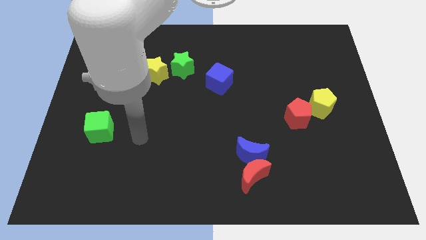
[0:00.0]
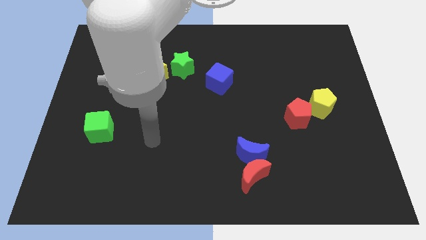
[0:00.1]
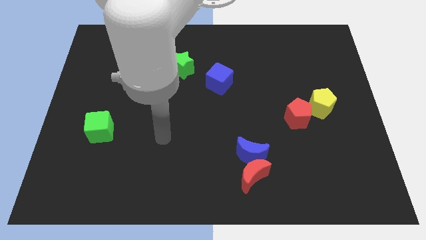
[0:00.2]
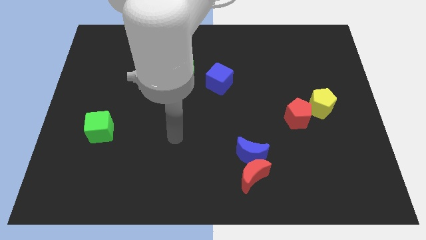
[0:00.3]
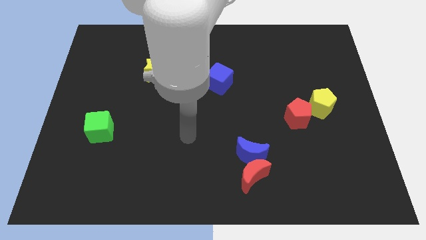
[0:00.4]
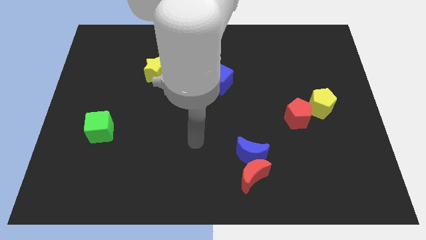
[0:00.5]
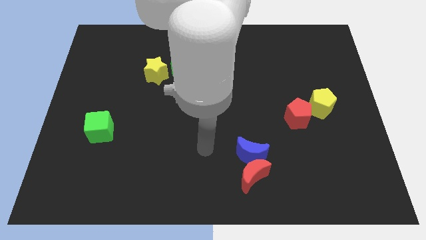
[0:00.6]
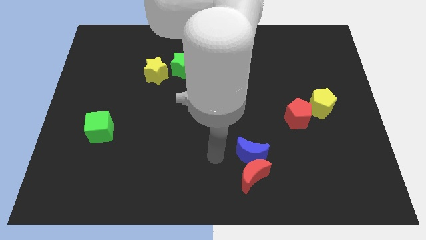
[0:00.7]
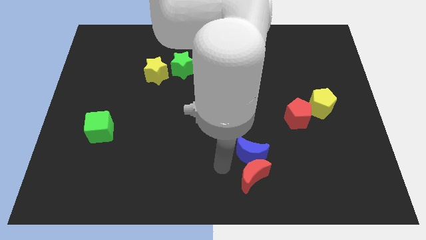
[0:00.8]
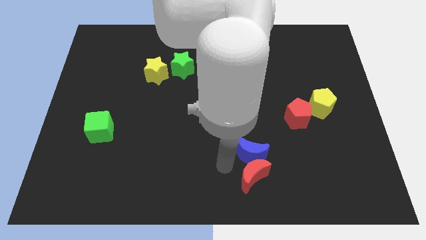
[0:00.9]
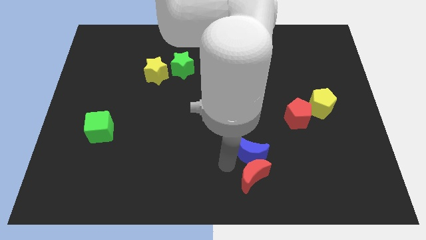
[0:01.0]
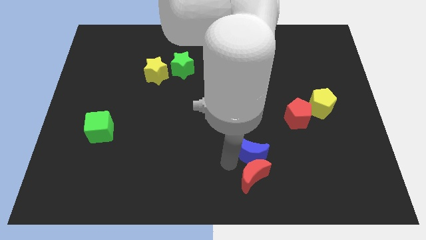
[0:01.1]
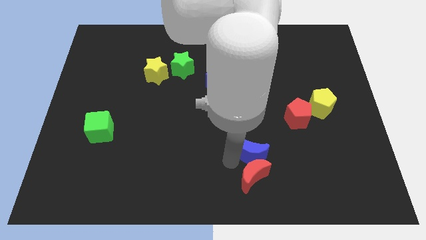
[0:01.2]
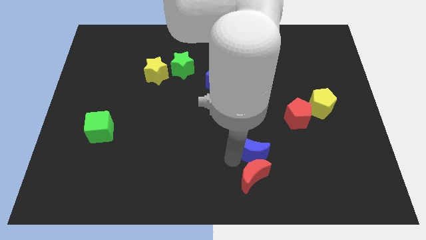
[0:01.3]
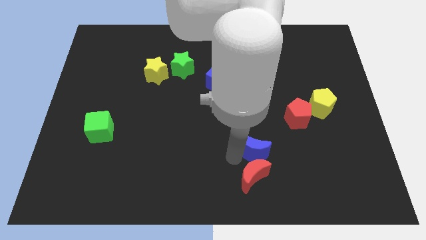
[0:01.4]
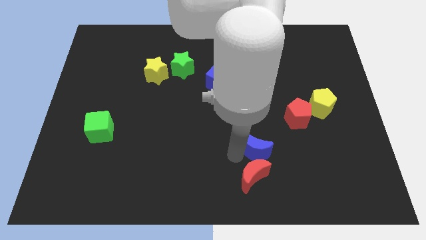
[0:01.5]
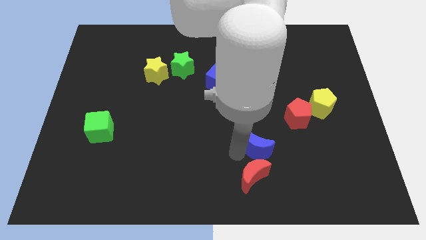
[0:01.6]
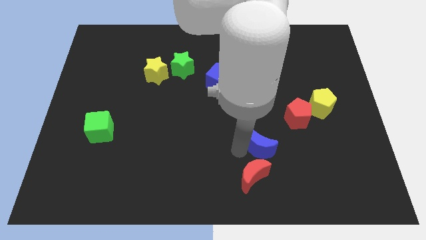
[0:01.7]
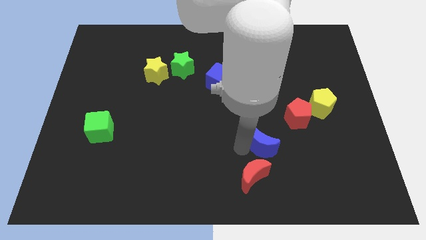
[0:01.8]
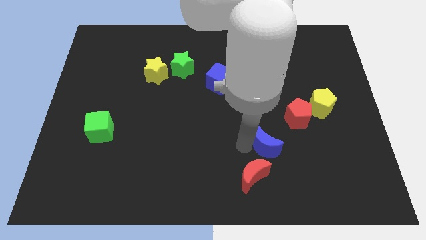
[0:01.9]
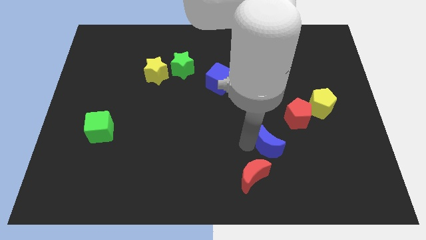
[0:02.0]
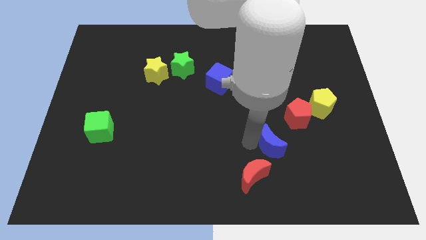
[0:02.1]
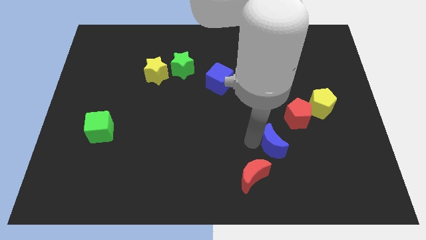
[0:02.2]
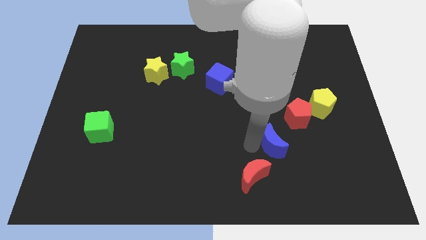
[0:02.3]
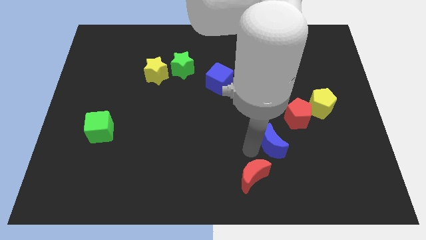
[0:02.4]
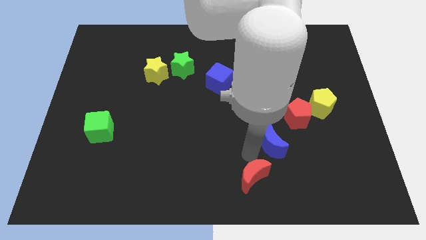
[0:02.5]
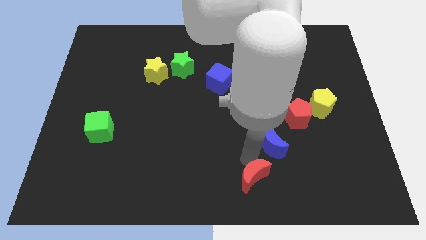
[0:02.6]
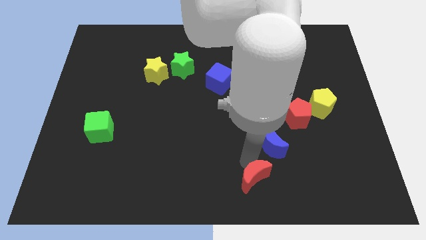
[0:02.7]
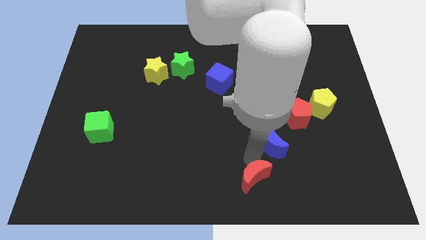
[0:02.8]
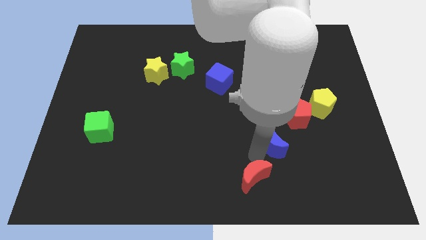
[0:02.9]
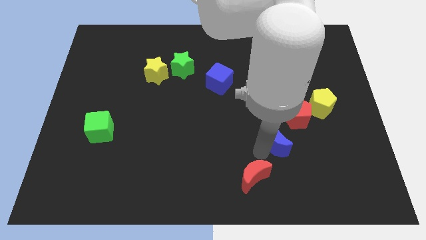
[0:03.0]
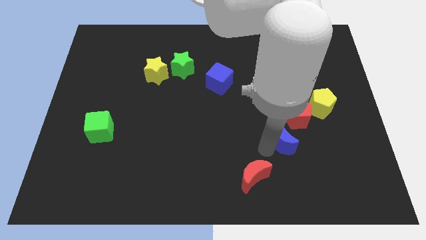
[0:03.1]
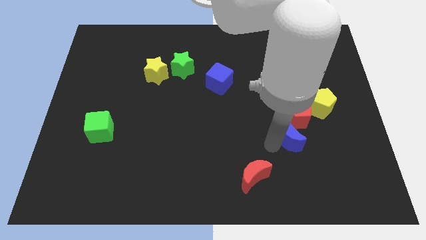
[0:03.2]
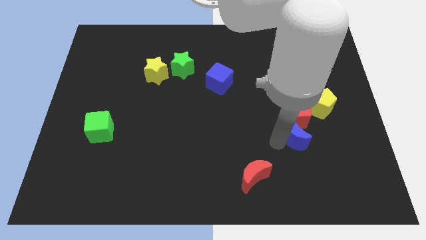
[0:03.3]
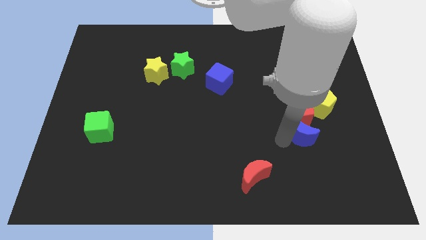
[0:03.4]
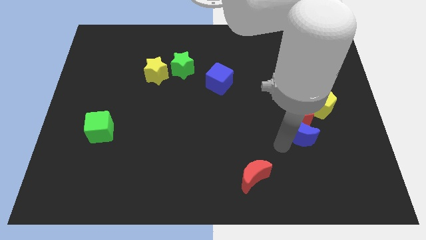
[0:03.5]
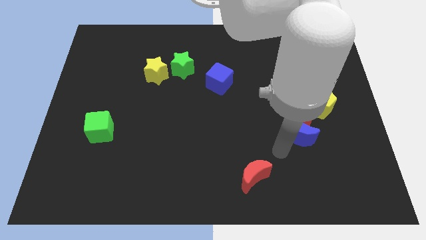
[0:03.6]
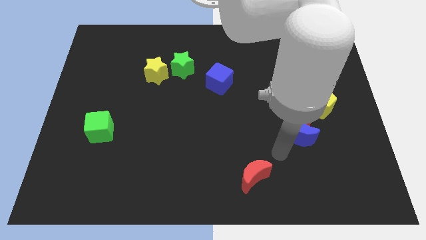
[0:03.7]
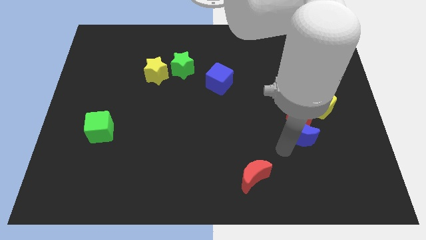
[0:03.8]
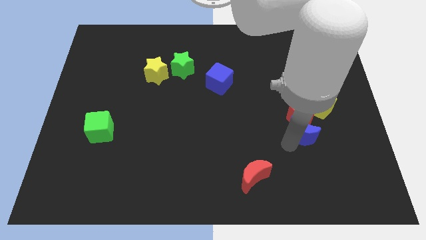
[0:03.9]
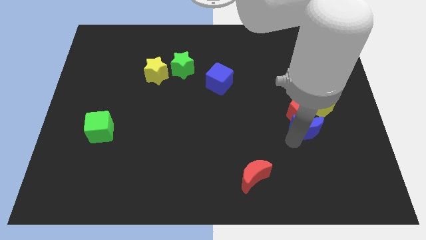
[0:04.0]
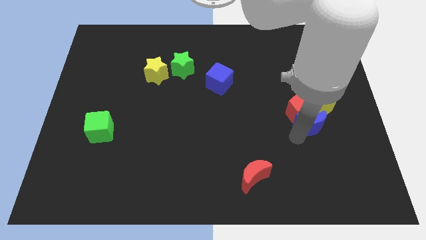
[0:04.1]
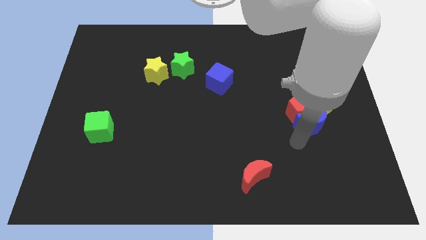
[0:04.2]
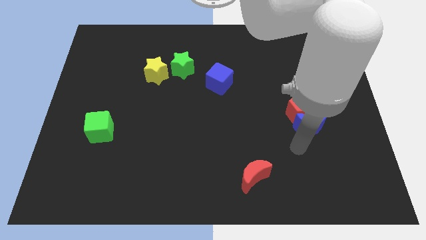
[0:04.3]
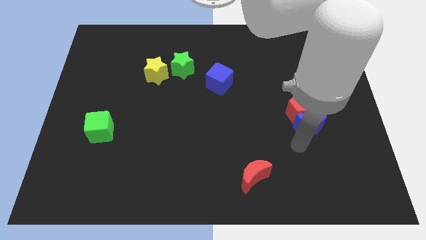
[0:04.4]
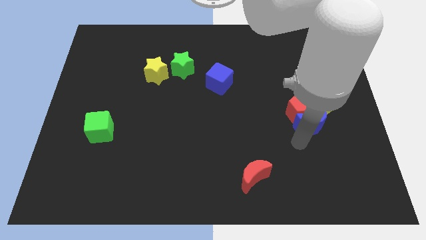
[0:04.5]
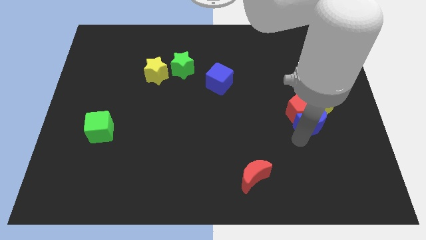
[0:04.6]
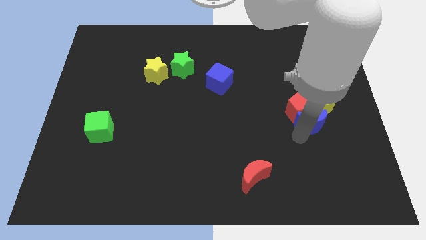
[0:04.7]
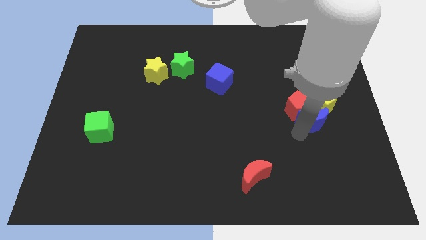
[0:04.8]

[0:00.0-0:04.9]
slide the blue moon to the yellow pentagon

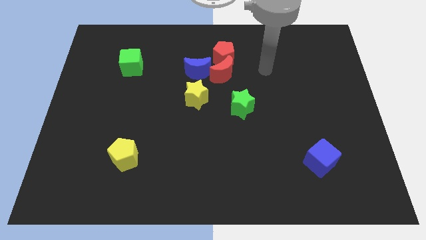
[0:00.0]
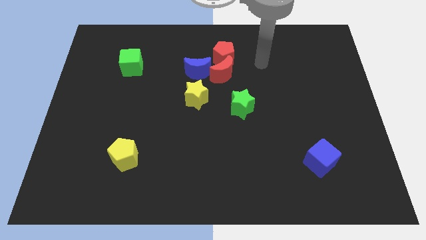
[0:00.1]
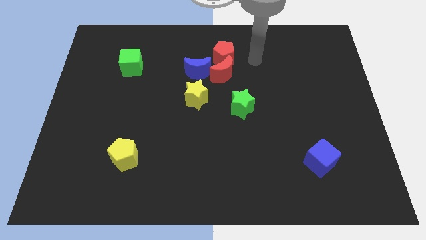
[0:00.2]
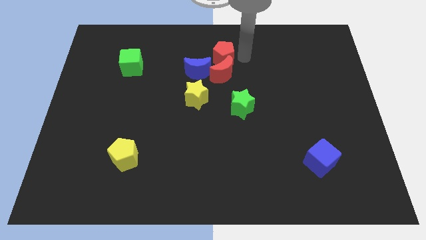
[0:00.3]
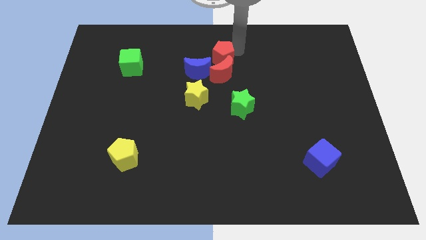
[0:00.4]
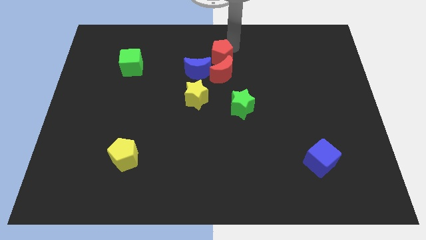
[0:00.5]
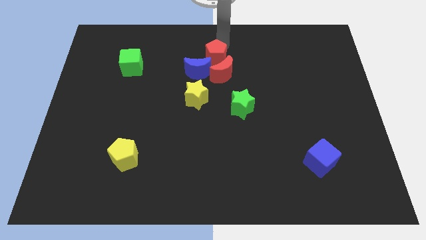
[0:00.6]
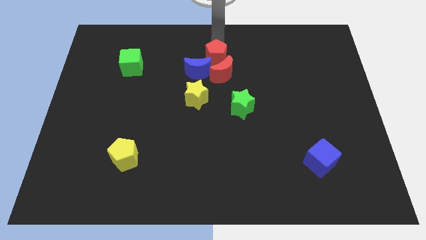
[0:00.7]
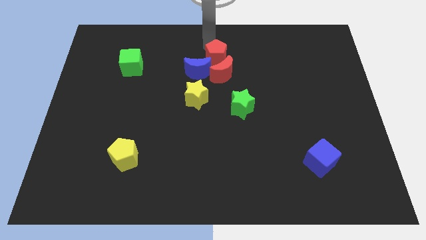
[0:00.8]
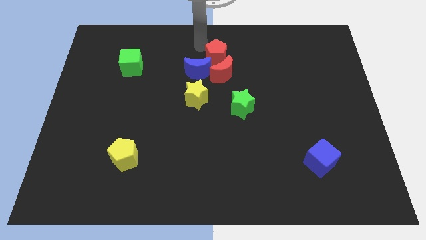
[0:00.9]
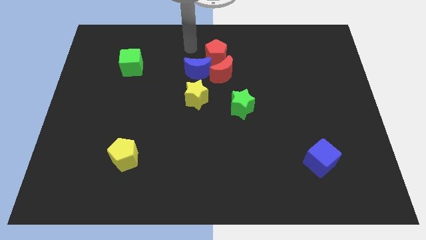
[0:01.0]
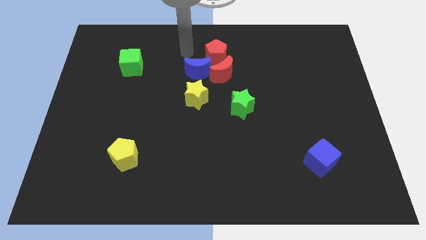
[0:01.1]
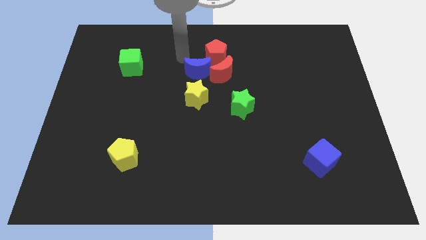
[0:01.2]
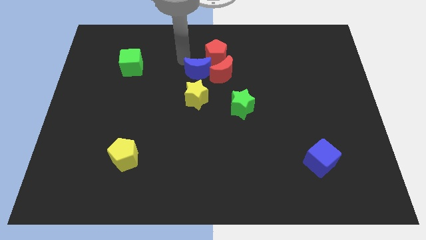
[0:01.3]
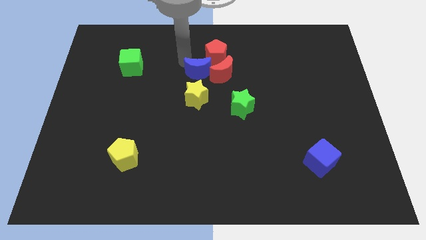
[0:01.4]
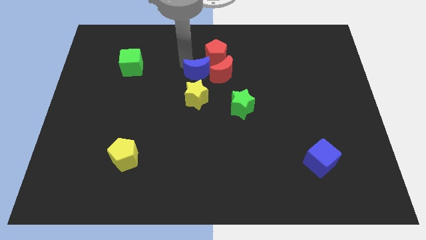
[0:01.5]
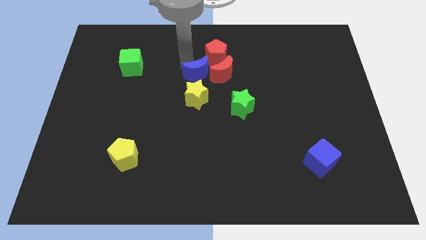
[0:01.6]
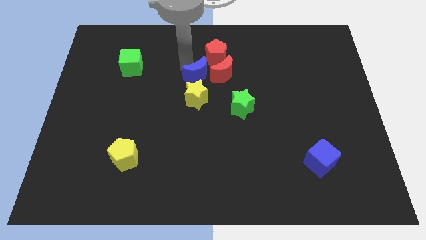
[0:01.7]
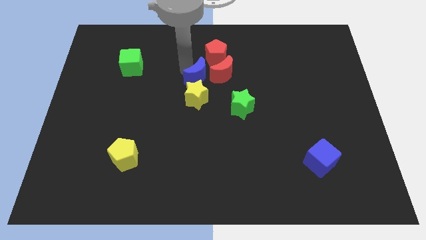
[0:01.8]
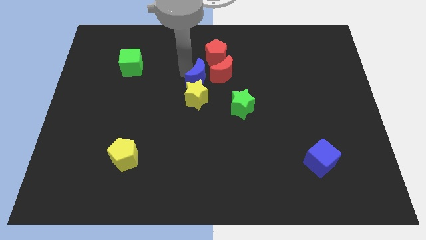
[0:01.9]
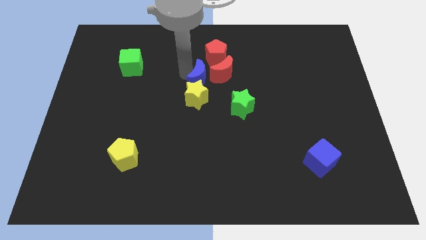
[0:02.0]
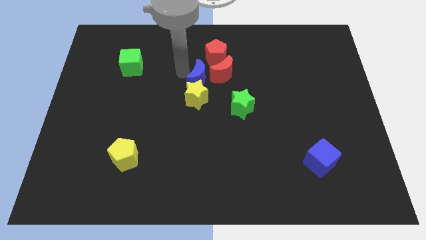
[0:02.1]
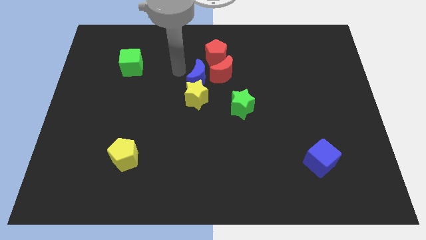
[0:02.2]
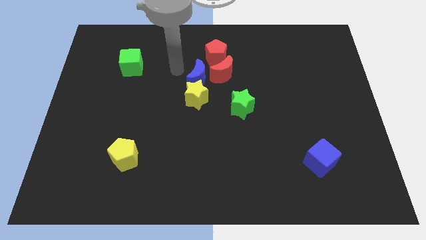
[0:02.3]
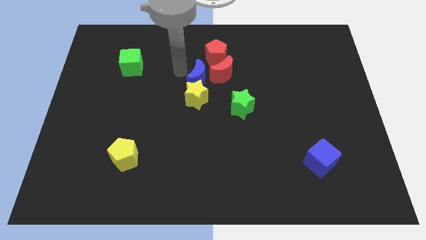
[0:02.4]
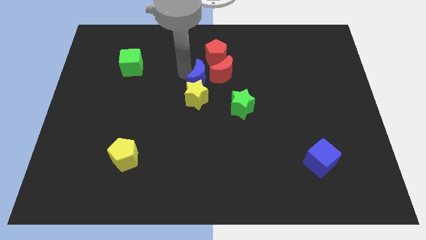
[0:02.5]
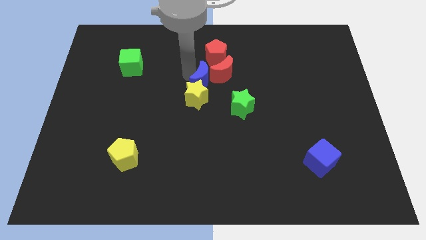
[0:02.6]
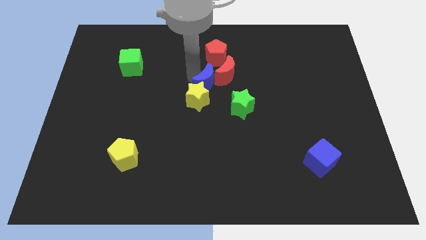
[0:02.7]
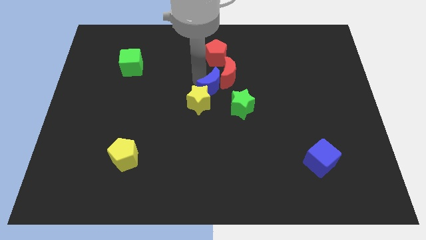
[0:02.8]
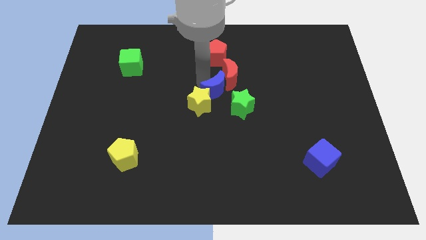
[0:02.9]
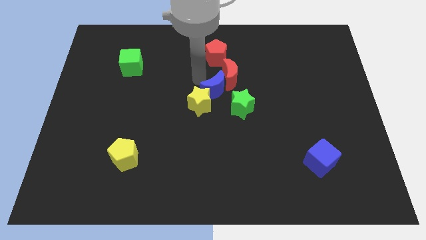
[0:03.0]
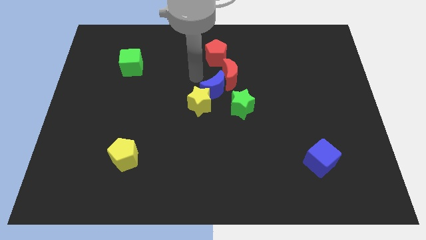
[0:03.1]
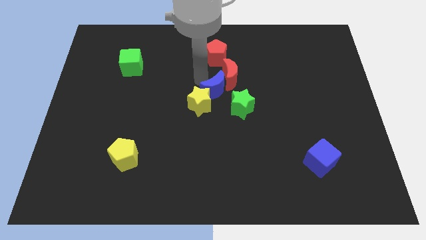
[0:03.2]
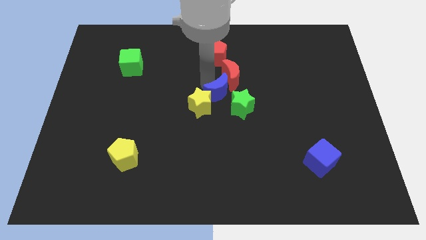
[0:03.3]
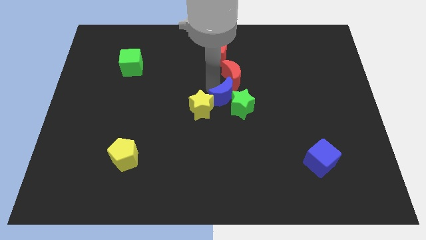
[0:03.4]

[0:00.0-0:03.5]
move the blue moon to the green star
